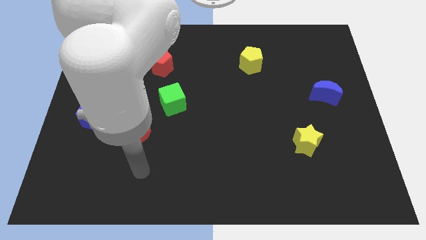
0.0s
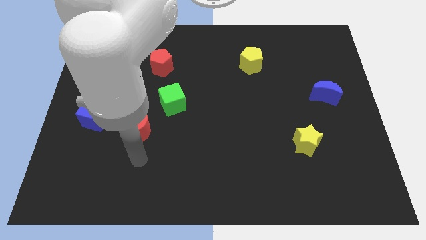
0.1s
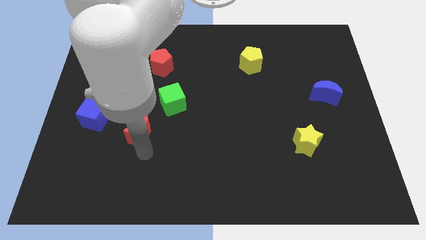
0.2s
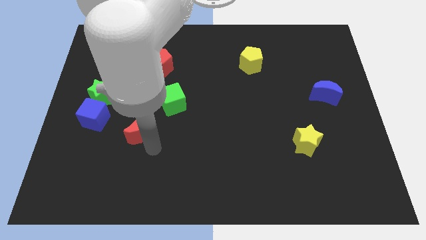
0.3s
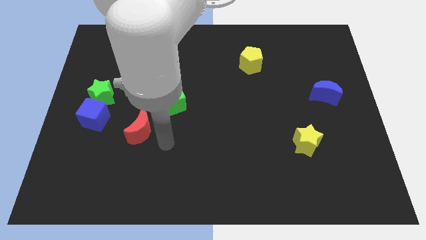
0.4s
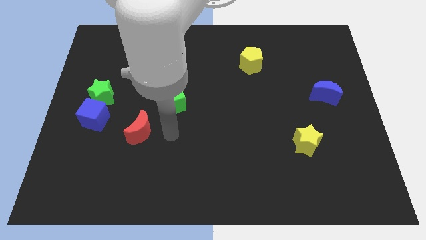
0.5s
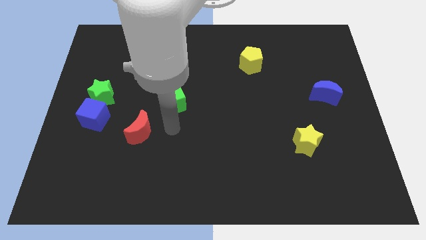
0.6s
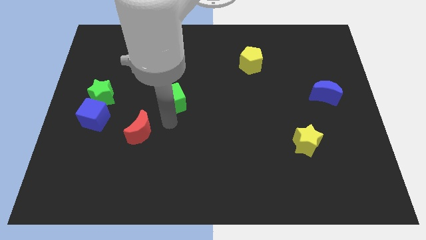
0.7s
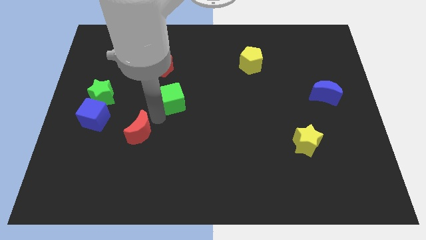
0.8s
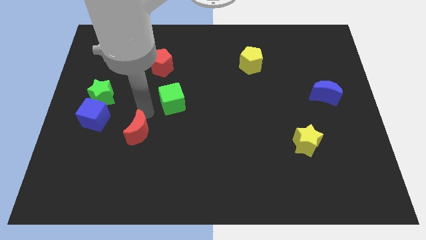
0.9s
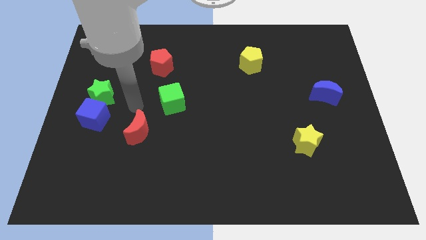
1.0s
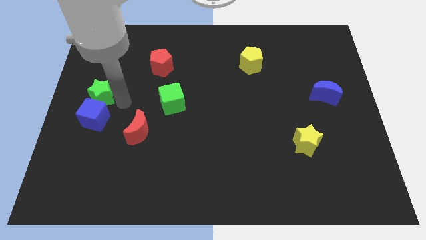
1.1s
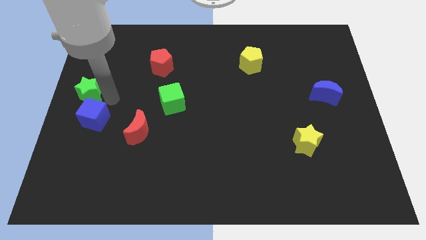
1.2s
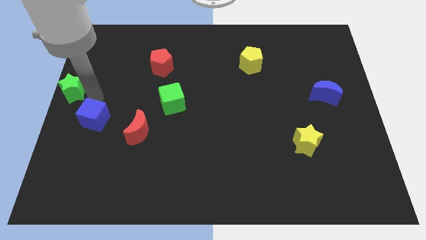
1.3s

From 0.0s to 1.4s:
separate the blue cube from the green star

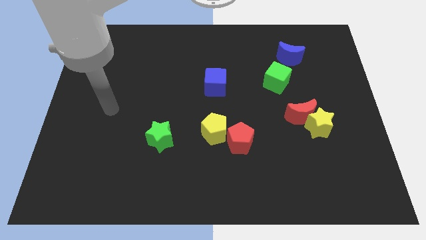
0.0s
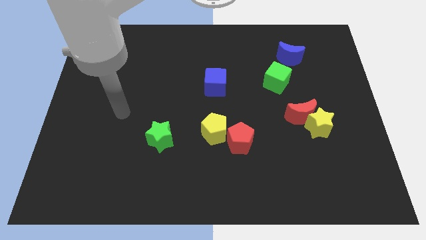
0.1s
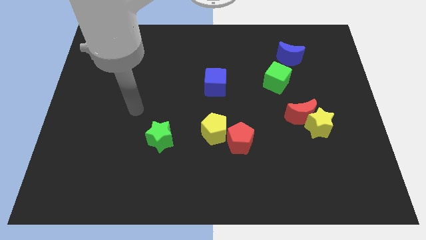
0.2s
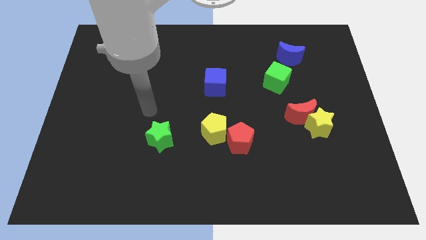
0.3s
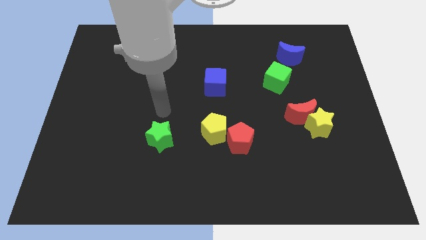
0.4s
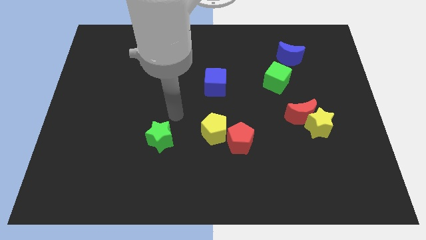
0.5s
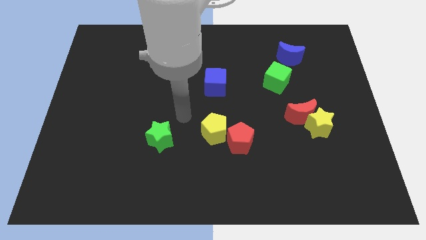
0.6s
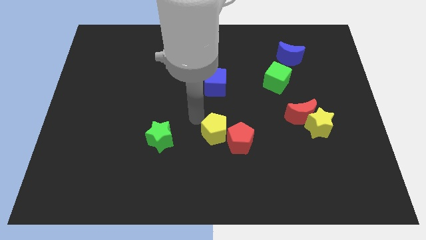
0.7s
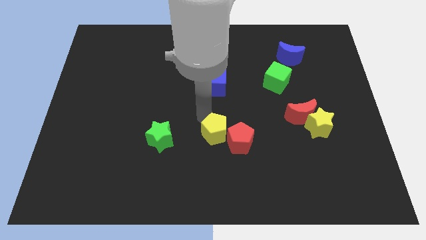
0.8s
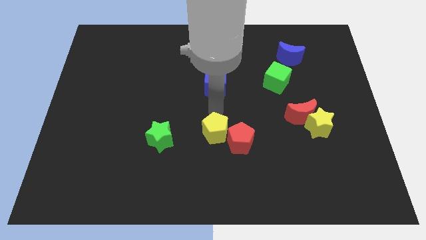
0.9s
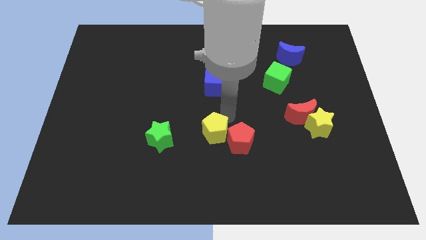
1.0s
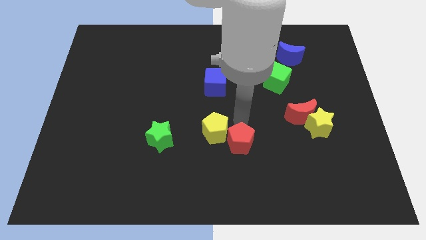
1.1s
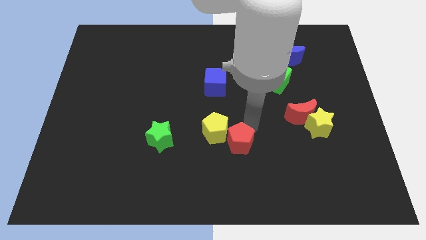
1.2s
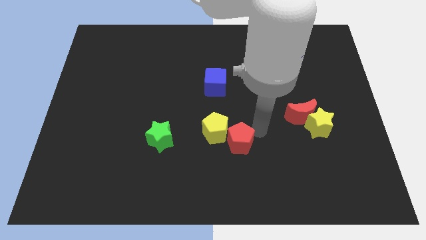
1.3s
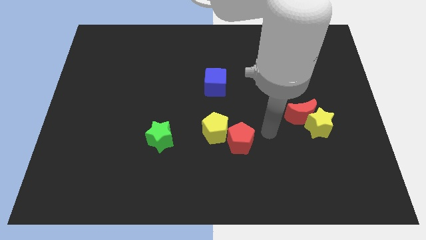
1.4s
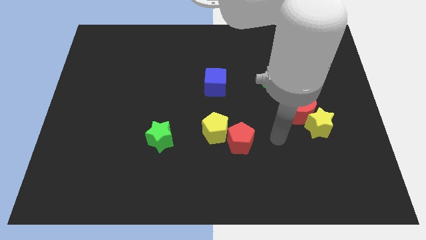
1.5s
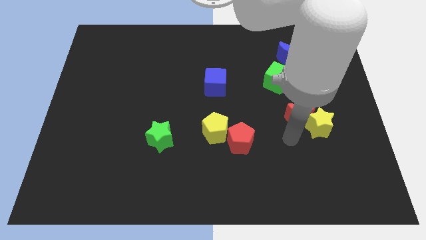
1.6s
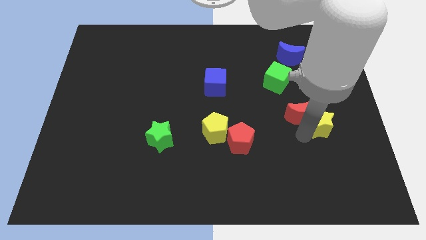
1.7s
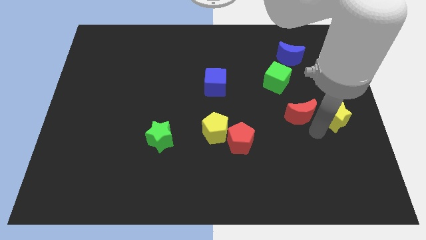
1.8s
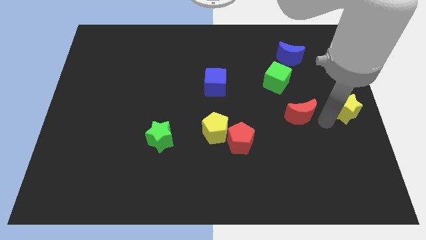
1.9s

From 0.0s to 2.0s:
move the red moon away from the yellow star

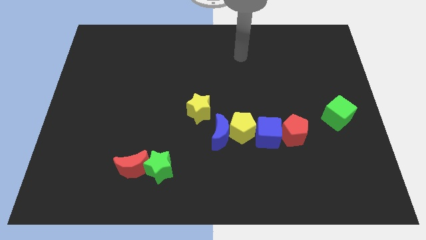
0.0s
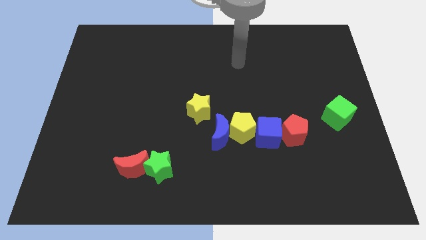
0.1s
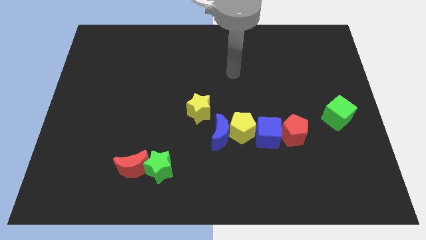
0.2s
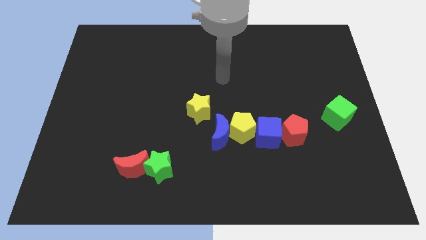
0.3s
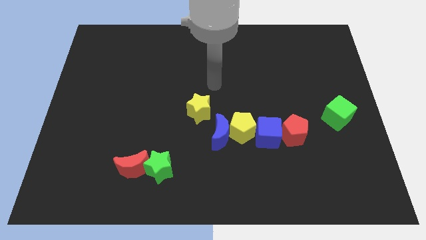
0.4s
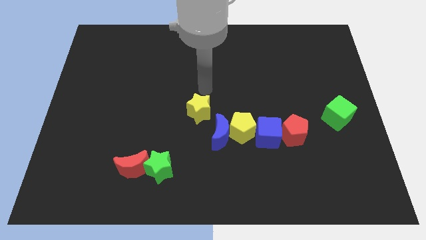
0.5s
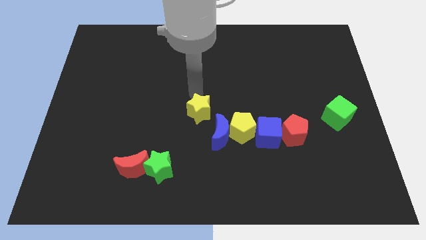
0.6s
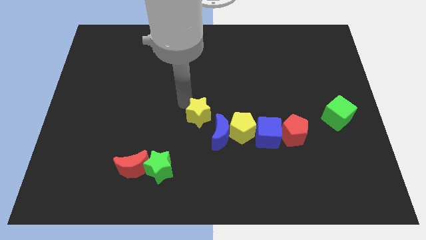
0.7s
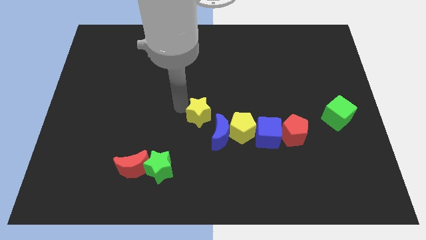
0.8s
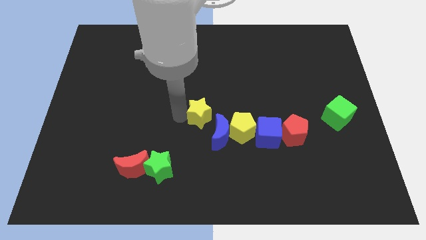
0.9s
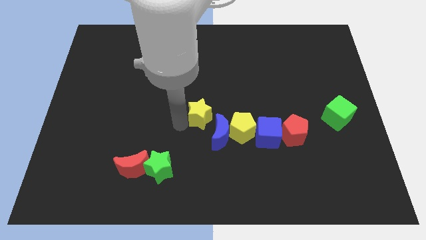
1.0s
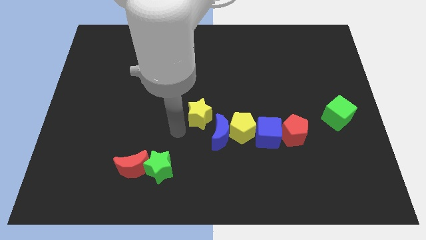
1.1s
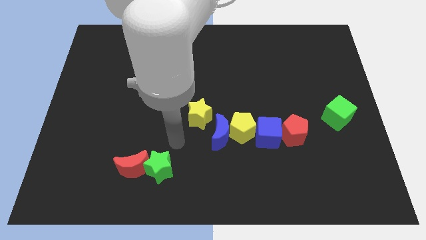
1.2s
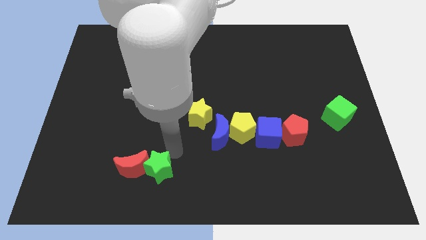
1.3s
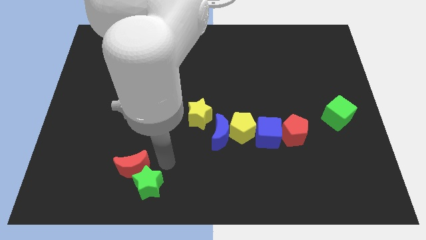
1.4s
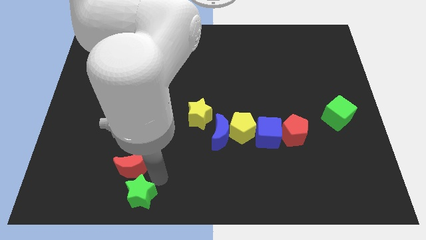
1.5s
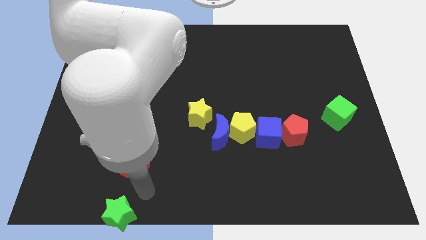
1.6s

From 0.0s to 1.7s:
move the red moon away from the green star

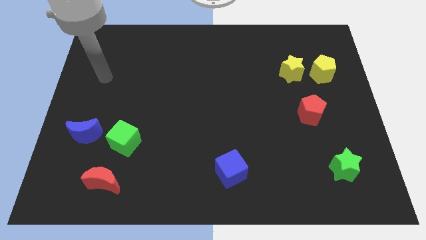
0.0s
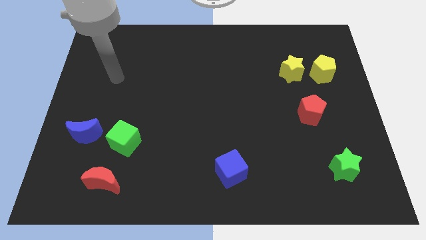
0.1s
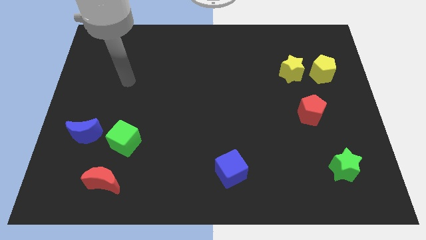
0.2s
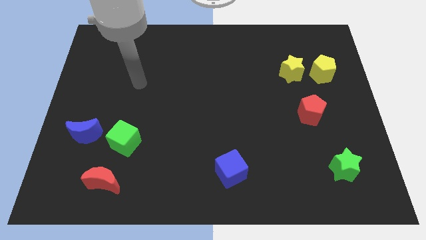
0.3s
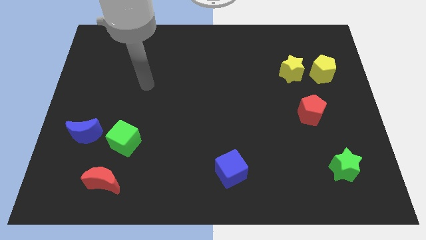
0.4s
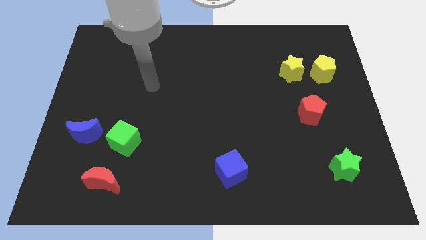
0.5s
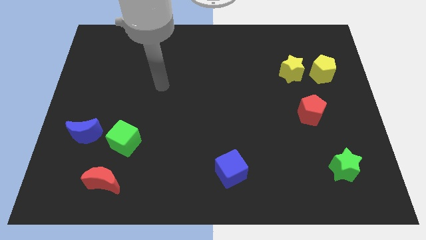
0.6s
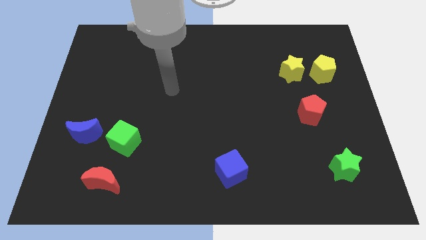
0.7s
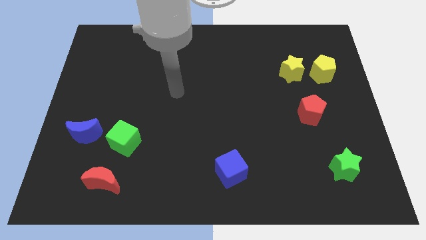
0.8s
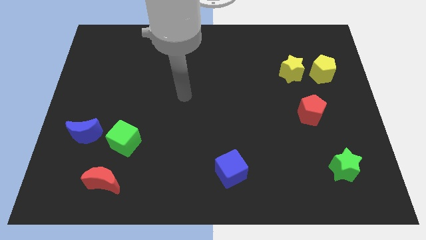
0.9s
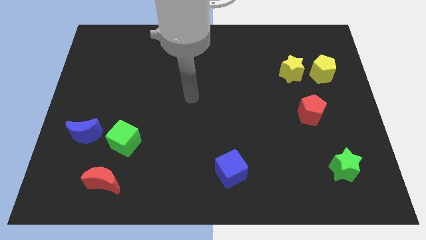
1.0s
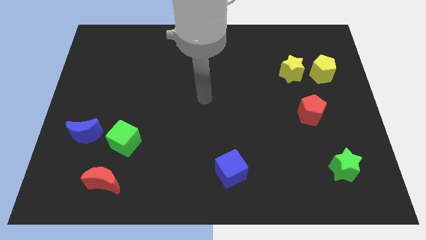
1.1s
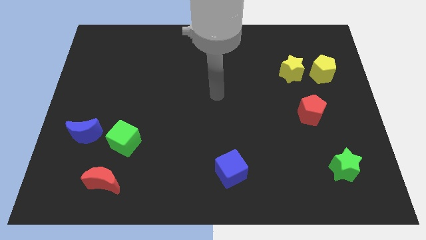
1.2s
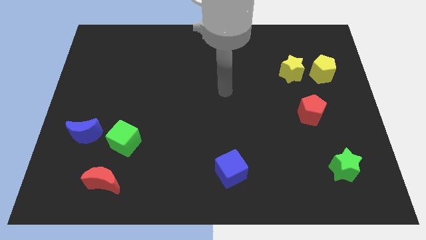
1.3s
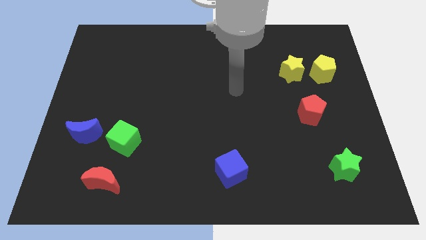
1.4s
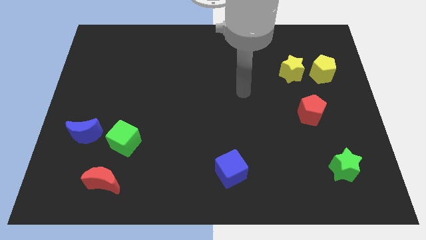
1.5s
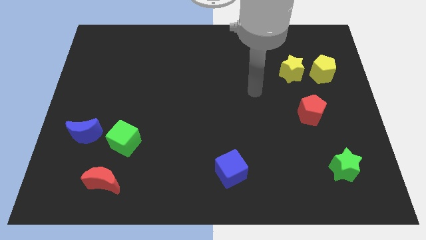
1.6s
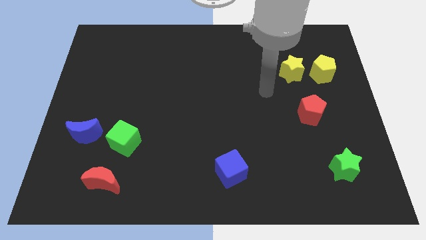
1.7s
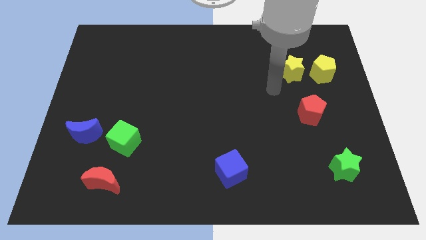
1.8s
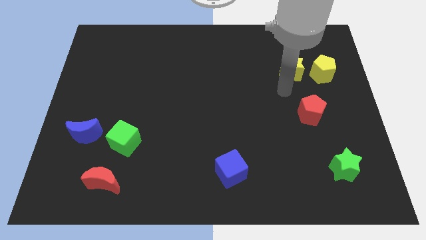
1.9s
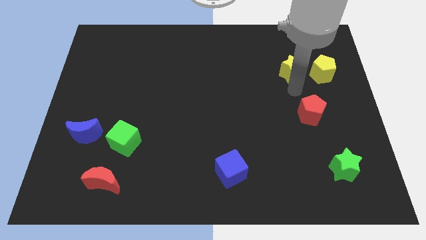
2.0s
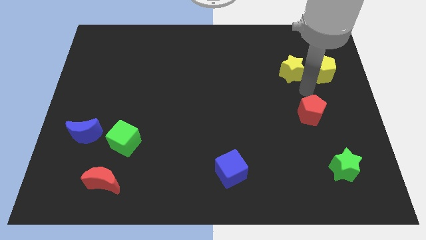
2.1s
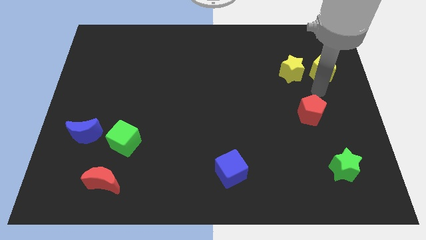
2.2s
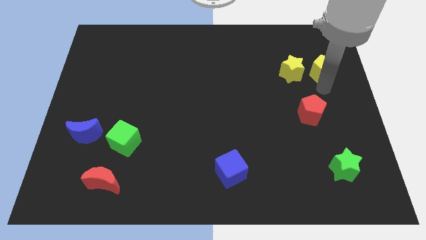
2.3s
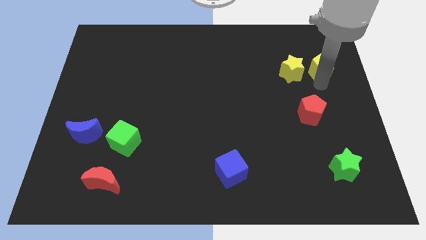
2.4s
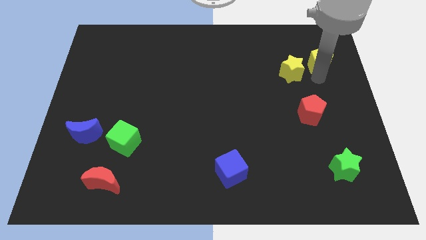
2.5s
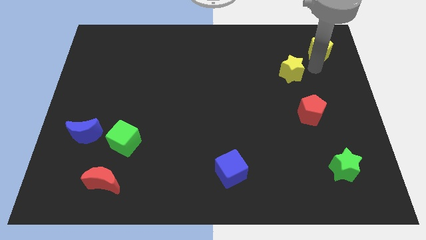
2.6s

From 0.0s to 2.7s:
pull the yellow star apart from the yellow pentagon

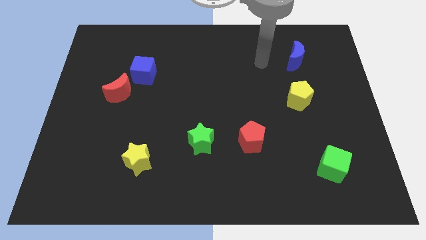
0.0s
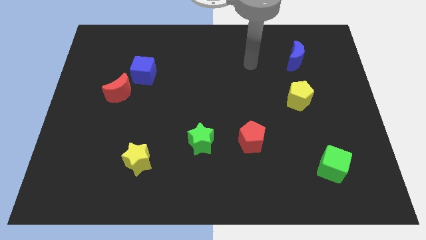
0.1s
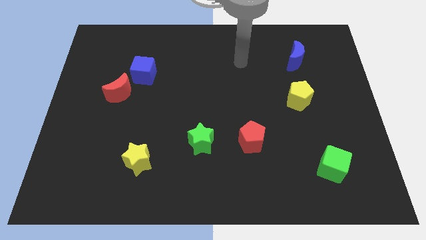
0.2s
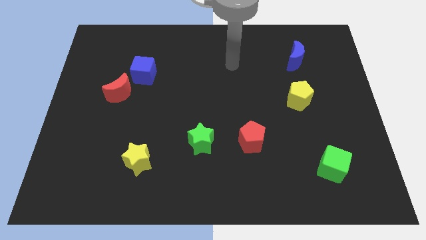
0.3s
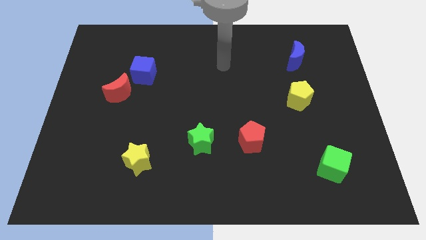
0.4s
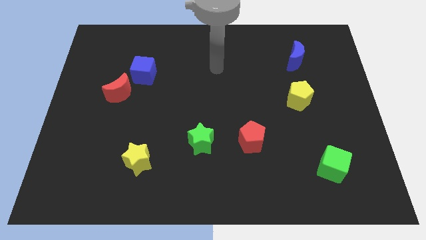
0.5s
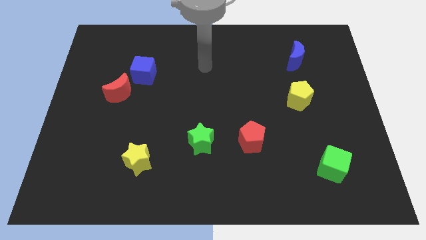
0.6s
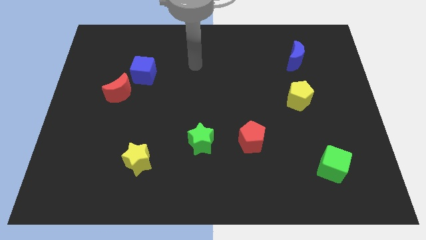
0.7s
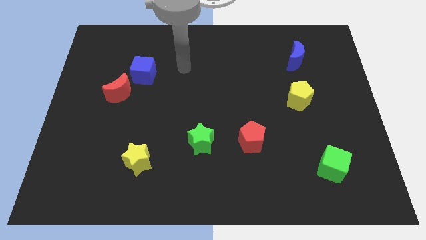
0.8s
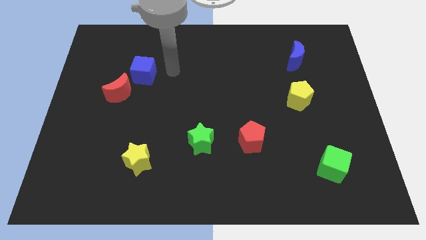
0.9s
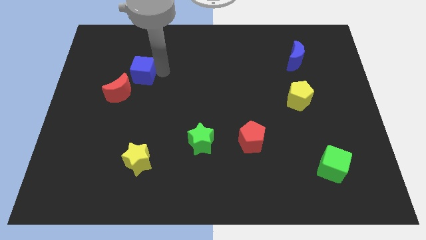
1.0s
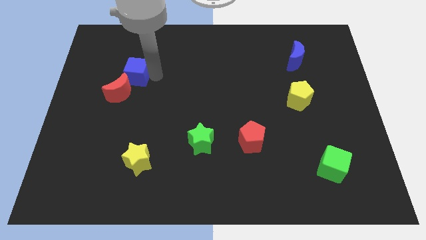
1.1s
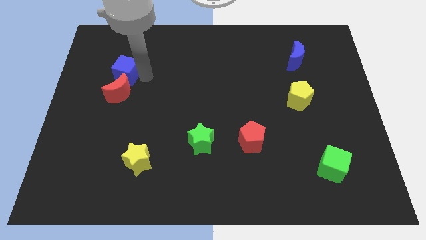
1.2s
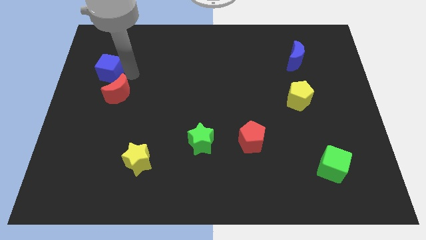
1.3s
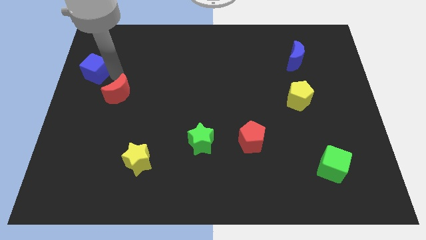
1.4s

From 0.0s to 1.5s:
pull the red moon apart from the blue cube

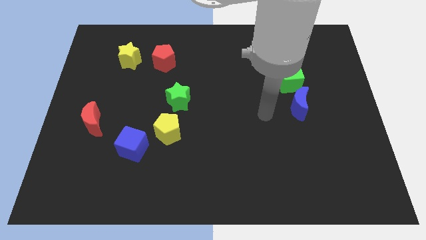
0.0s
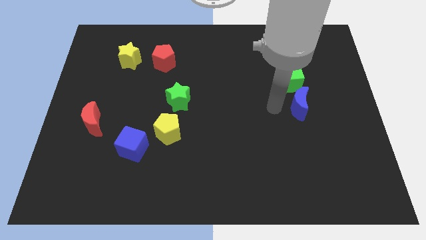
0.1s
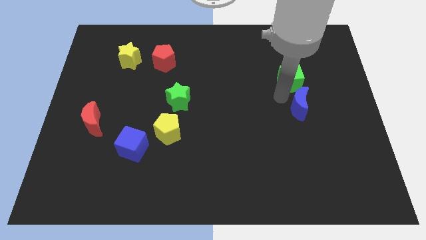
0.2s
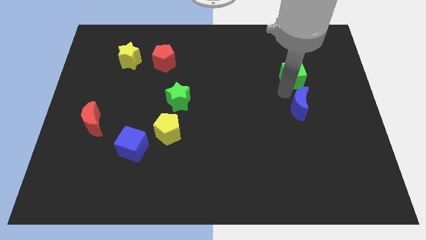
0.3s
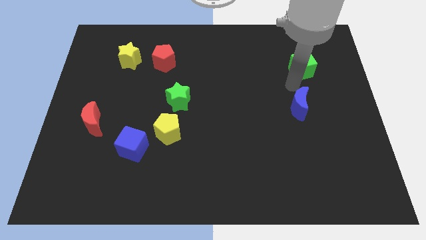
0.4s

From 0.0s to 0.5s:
pull the blue moon apart from the green cube
